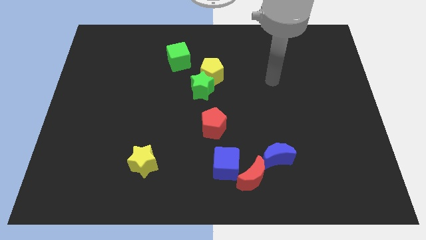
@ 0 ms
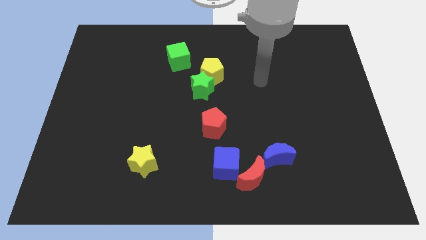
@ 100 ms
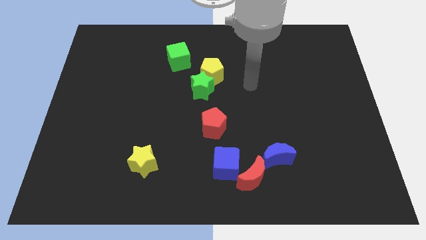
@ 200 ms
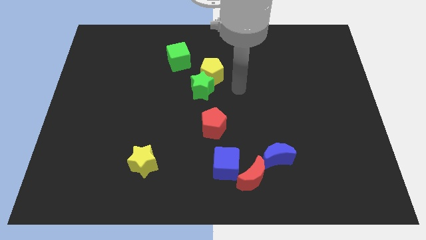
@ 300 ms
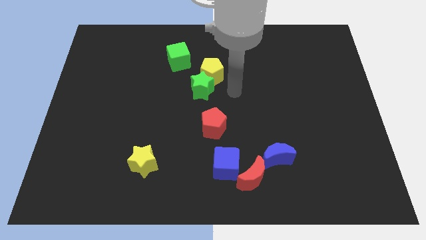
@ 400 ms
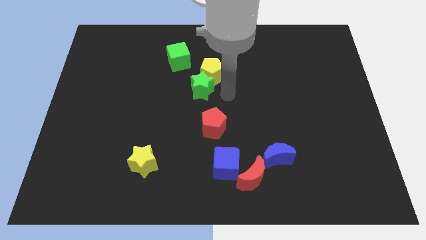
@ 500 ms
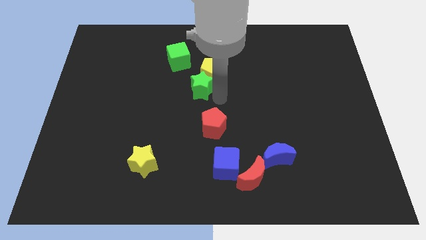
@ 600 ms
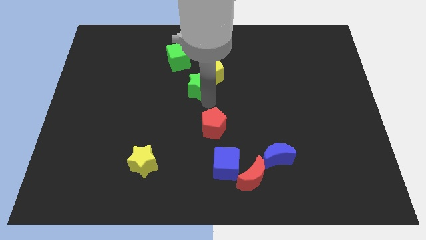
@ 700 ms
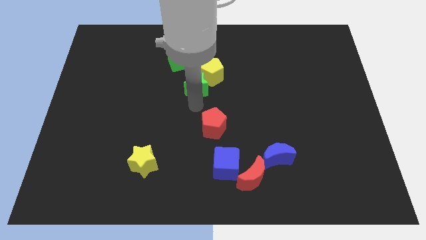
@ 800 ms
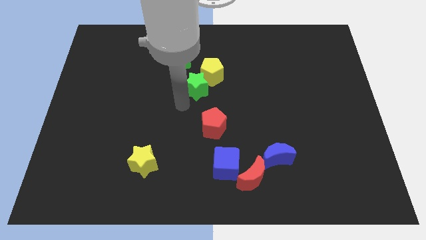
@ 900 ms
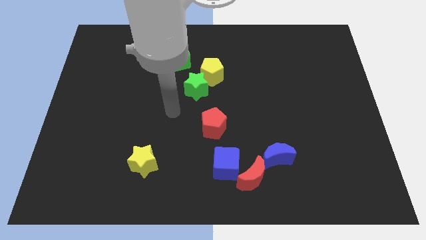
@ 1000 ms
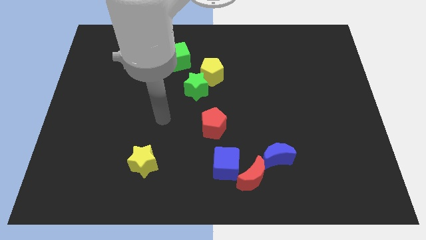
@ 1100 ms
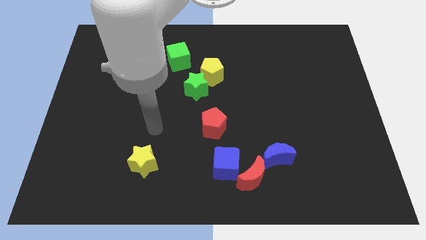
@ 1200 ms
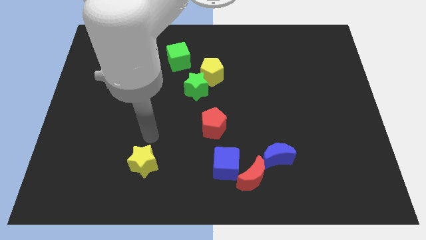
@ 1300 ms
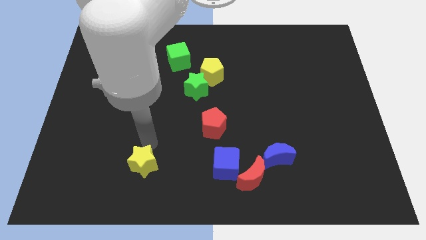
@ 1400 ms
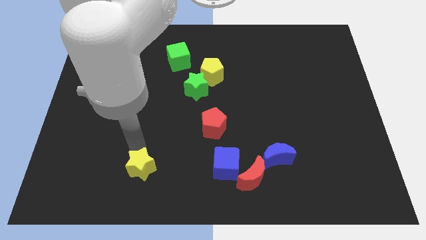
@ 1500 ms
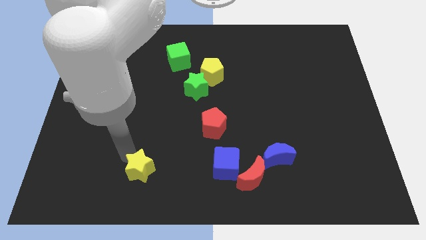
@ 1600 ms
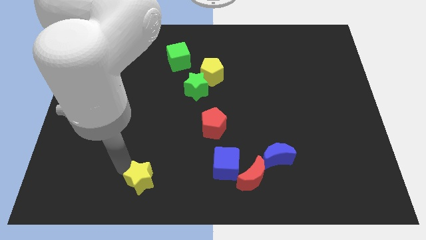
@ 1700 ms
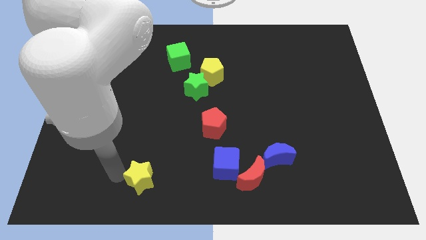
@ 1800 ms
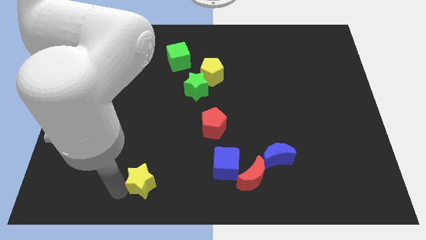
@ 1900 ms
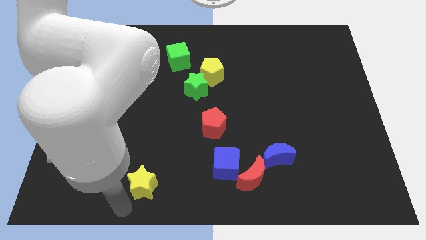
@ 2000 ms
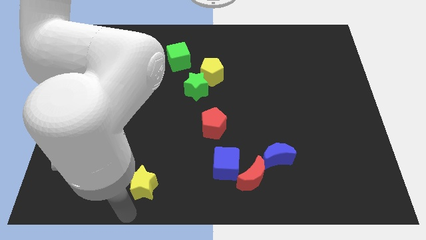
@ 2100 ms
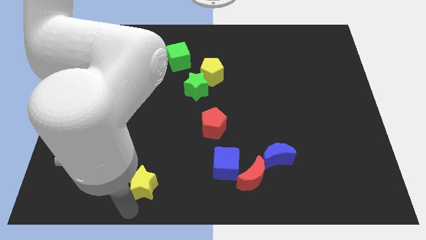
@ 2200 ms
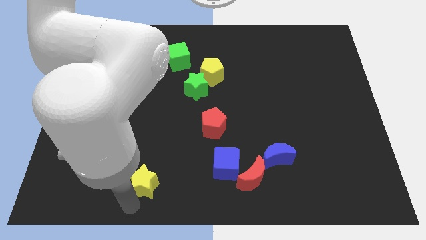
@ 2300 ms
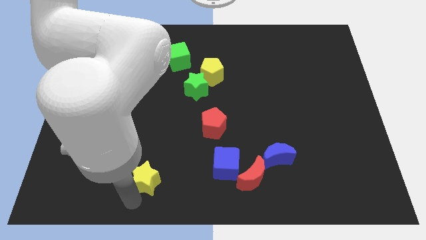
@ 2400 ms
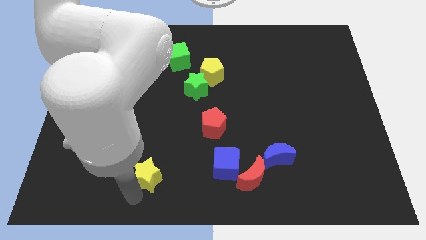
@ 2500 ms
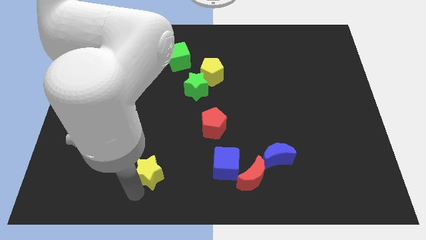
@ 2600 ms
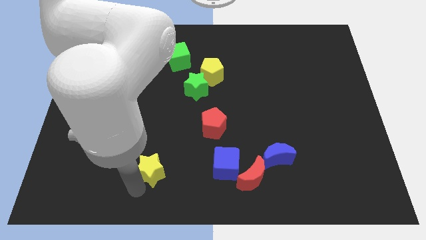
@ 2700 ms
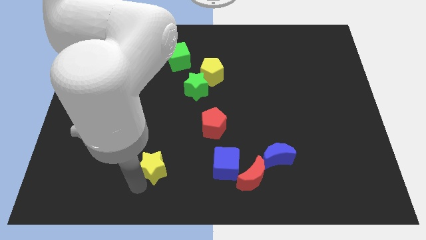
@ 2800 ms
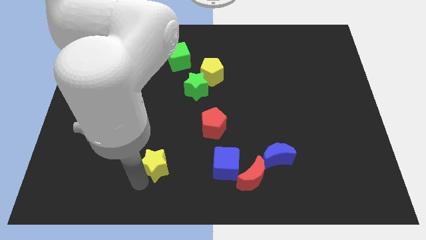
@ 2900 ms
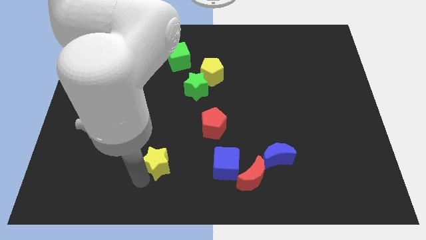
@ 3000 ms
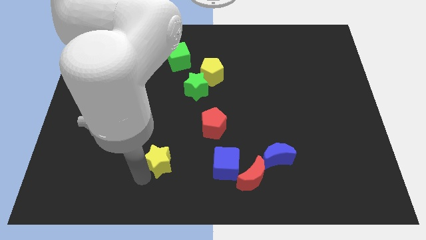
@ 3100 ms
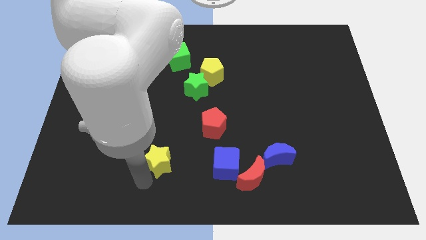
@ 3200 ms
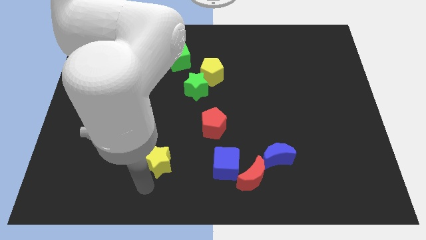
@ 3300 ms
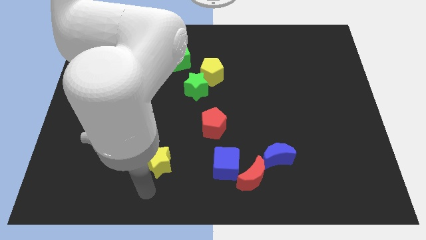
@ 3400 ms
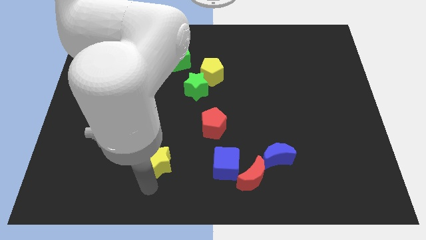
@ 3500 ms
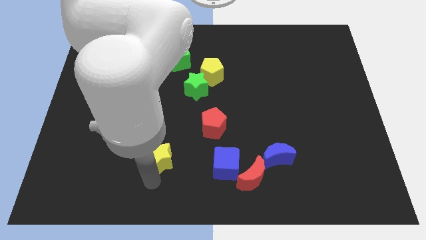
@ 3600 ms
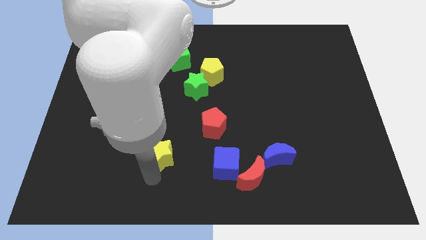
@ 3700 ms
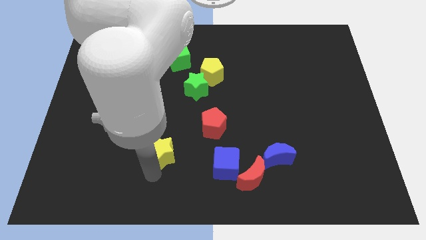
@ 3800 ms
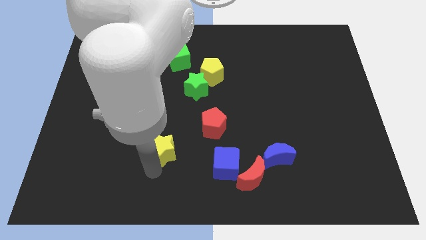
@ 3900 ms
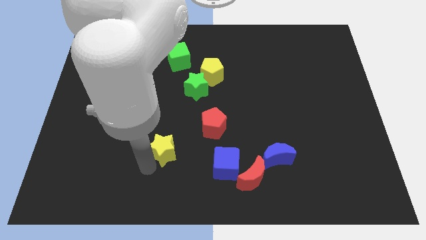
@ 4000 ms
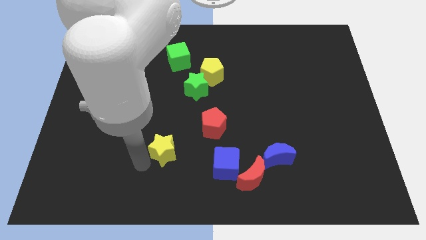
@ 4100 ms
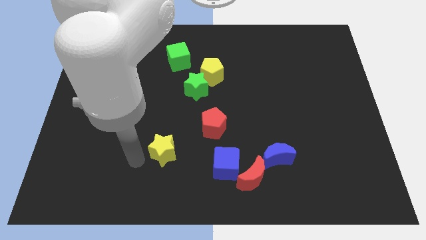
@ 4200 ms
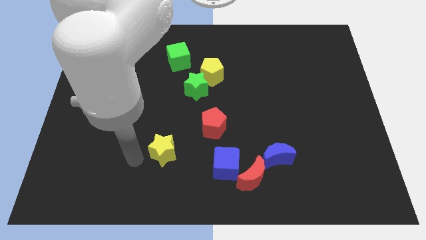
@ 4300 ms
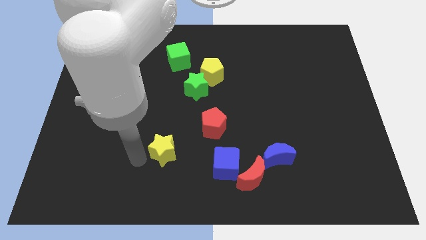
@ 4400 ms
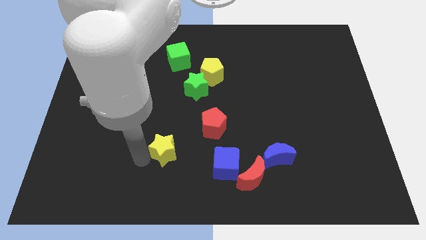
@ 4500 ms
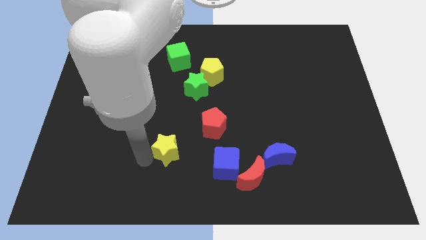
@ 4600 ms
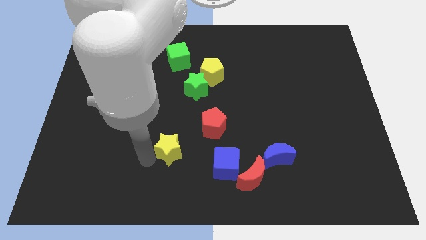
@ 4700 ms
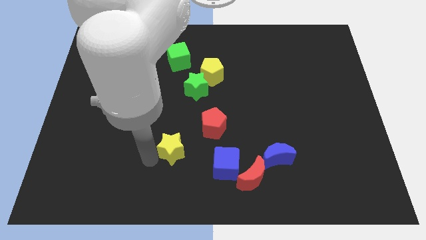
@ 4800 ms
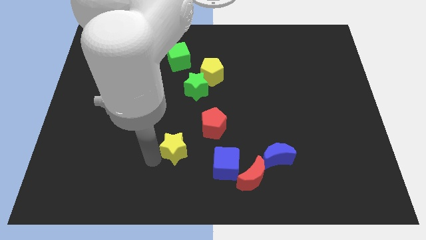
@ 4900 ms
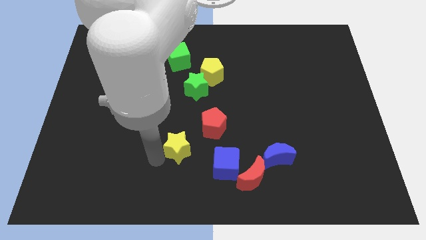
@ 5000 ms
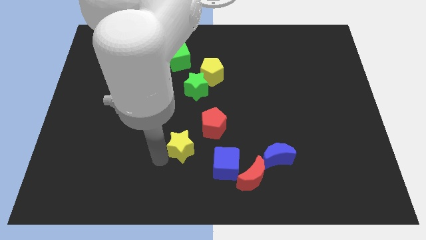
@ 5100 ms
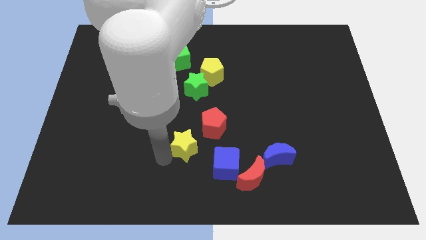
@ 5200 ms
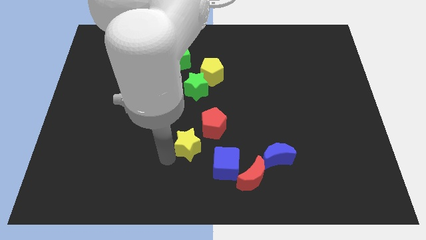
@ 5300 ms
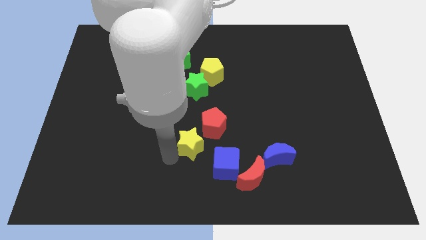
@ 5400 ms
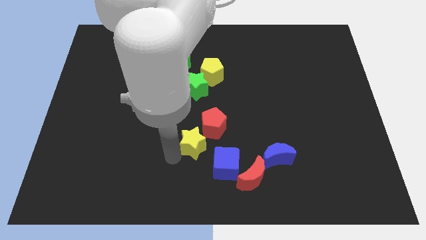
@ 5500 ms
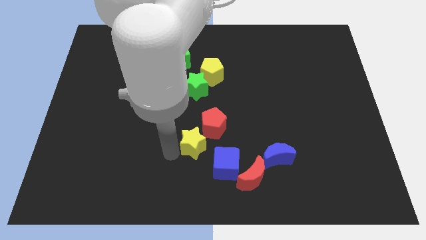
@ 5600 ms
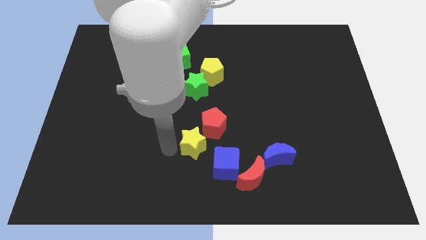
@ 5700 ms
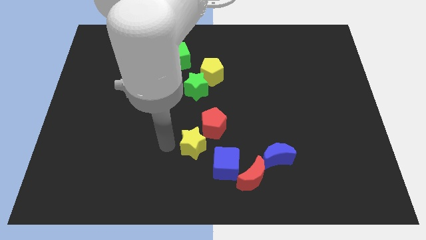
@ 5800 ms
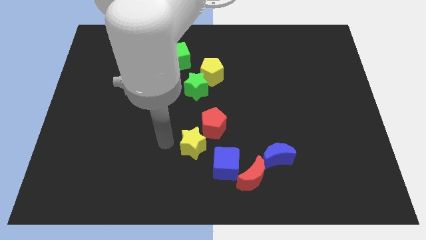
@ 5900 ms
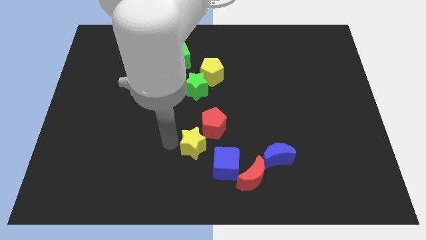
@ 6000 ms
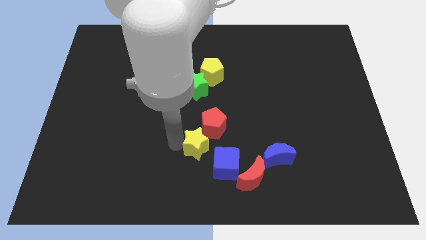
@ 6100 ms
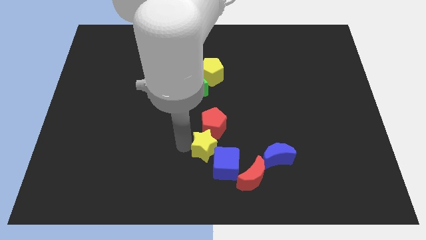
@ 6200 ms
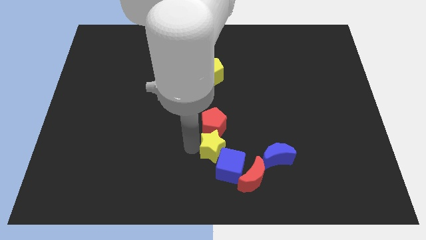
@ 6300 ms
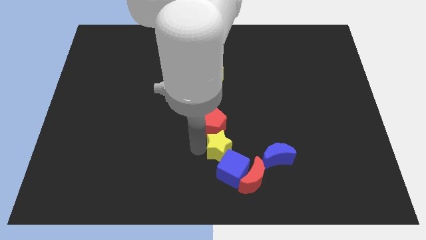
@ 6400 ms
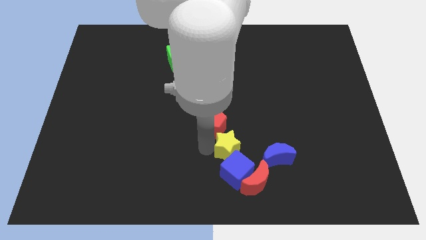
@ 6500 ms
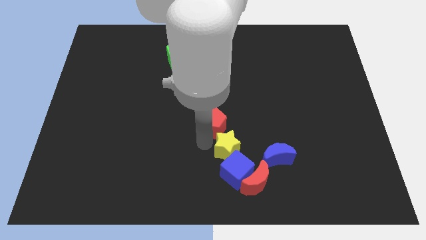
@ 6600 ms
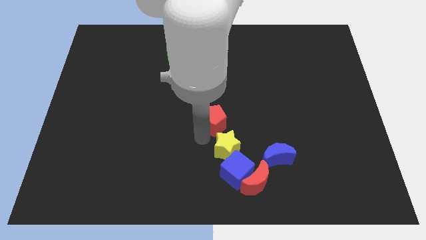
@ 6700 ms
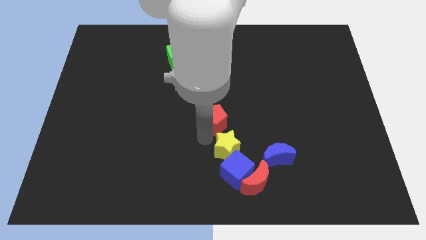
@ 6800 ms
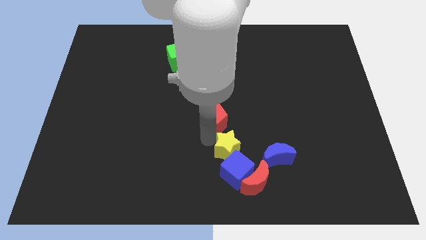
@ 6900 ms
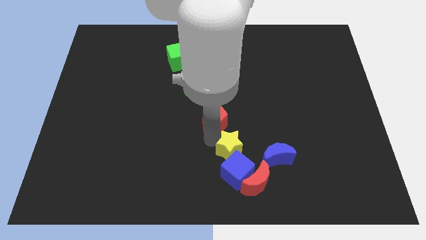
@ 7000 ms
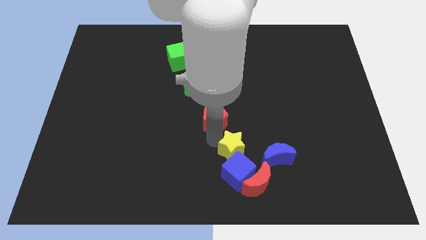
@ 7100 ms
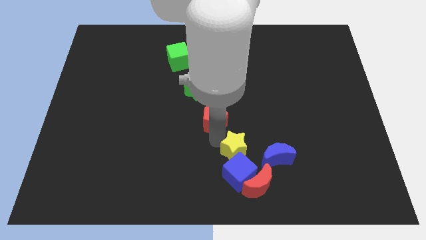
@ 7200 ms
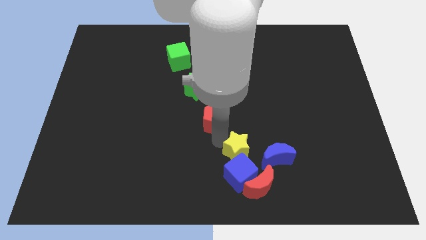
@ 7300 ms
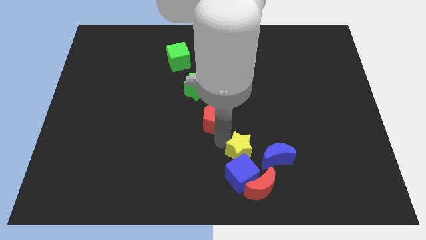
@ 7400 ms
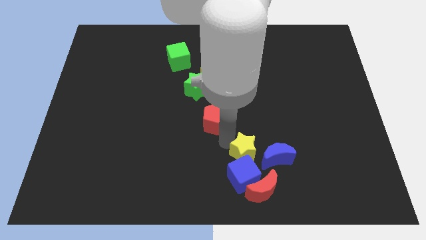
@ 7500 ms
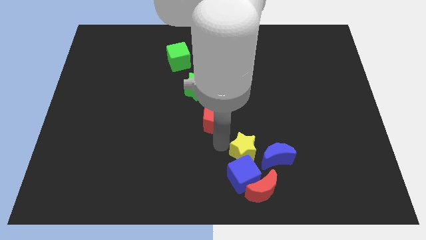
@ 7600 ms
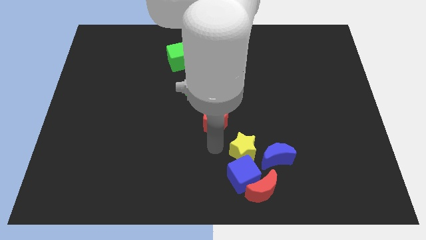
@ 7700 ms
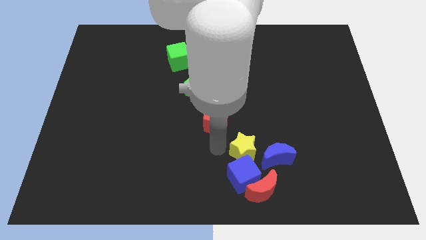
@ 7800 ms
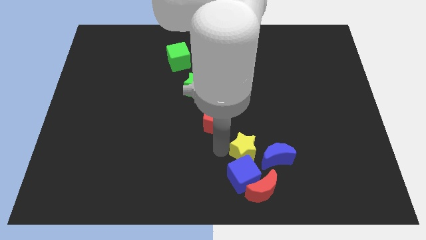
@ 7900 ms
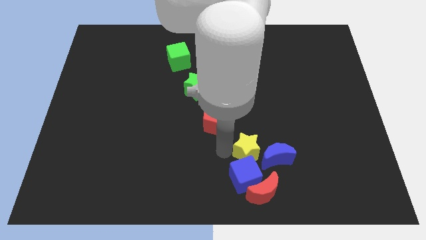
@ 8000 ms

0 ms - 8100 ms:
put the yellow star next to the blue moon
